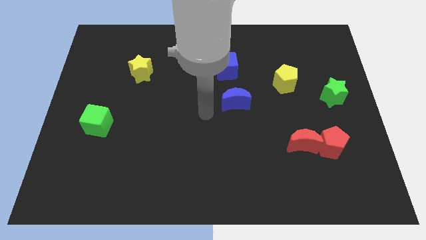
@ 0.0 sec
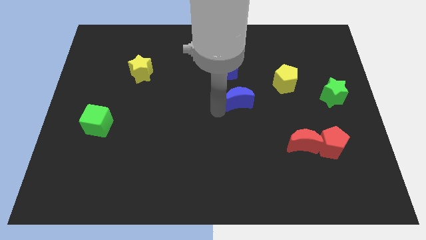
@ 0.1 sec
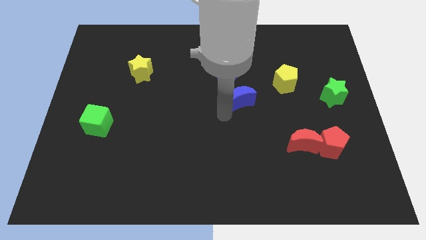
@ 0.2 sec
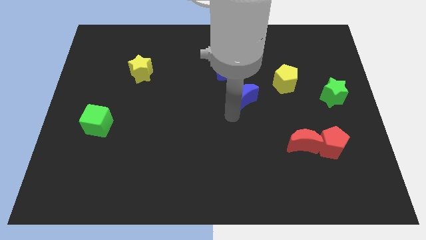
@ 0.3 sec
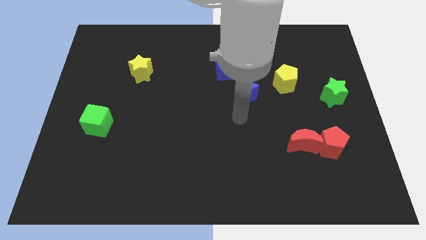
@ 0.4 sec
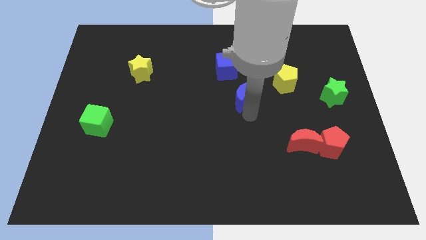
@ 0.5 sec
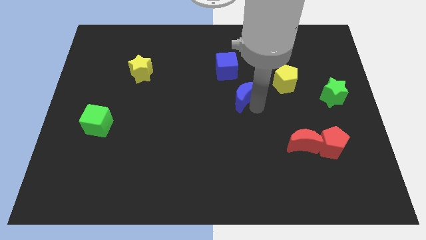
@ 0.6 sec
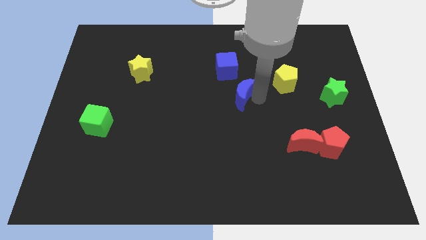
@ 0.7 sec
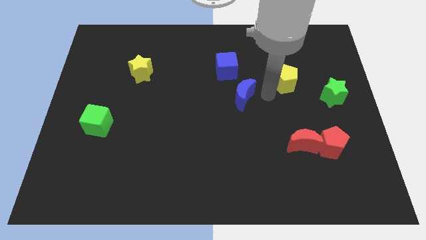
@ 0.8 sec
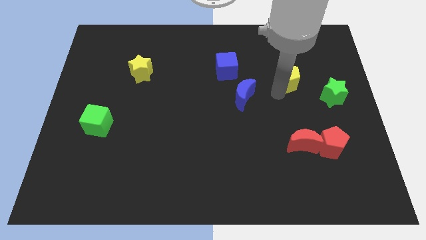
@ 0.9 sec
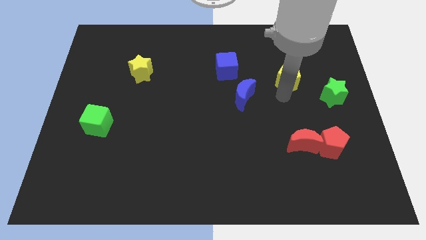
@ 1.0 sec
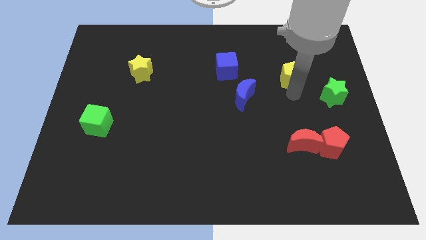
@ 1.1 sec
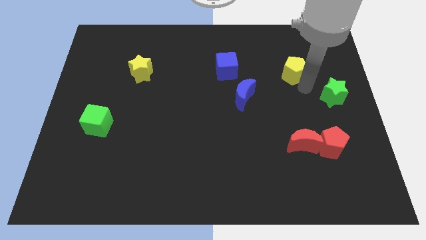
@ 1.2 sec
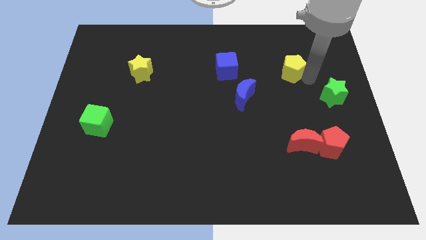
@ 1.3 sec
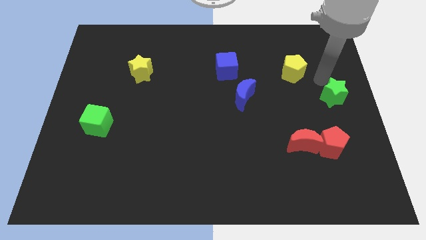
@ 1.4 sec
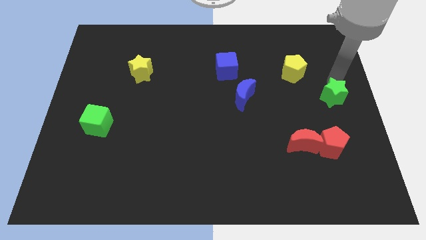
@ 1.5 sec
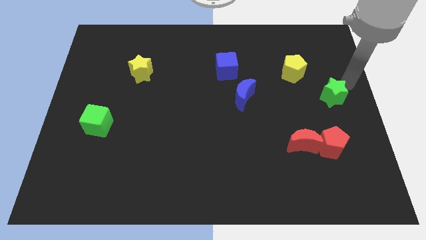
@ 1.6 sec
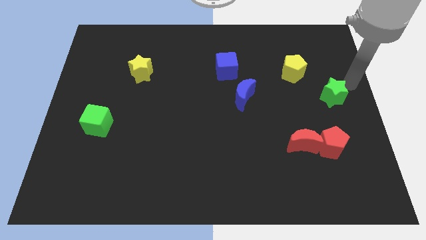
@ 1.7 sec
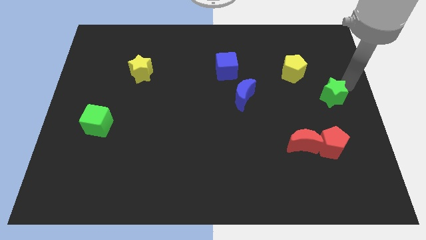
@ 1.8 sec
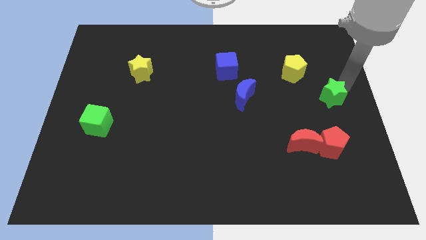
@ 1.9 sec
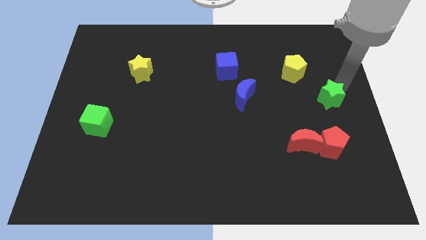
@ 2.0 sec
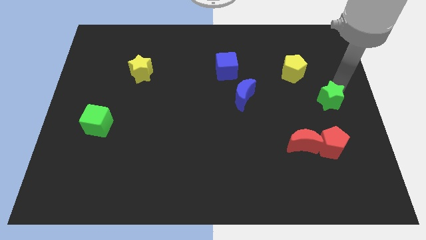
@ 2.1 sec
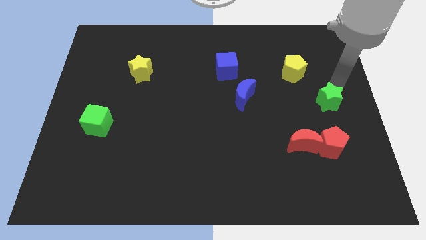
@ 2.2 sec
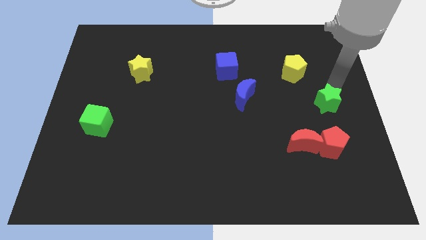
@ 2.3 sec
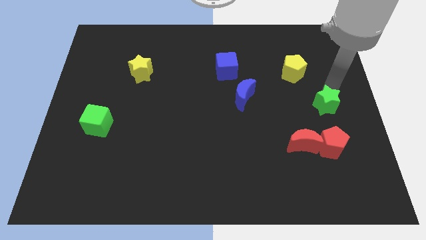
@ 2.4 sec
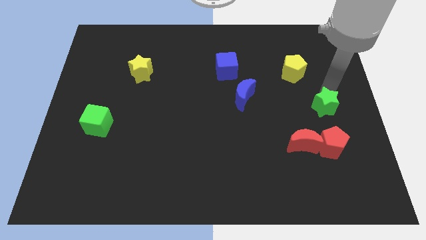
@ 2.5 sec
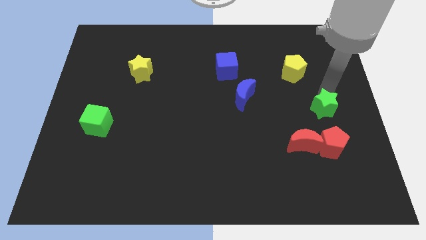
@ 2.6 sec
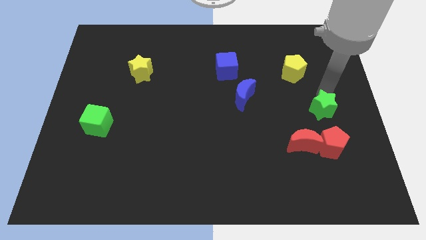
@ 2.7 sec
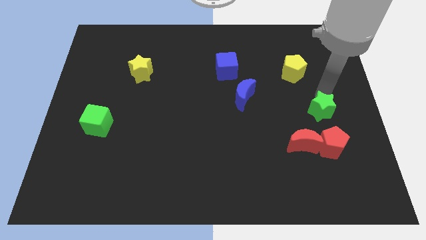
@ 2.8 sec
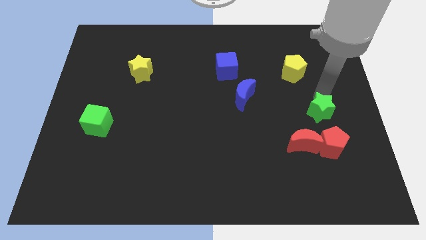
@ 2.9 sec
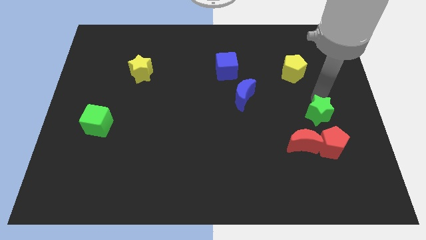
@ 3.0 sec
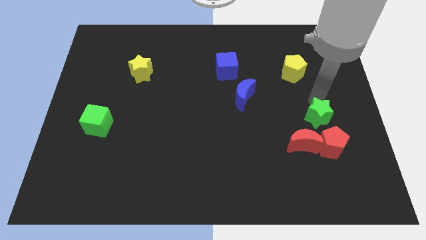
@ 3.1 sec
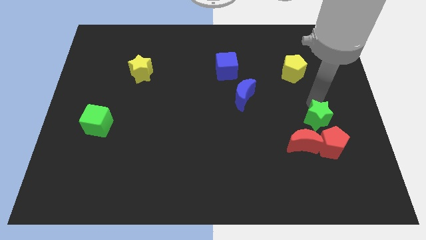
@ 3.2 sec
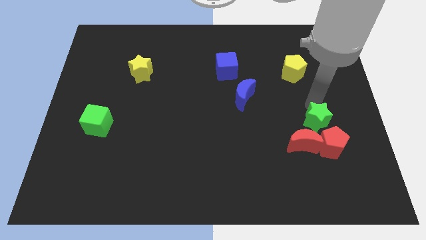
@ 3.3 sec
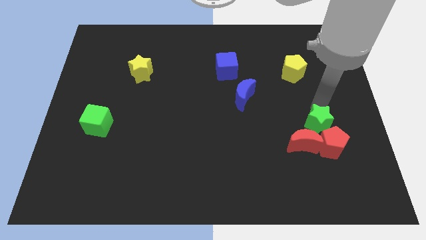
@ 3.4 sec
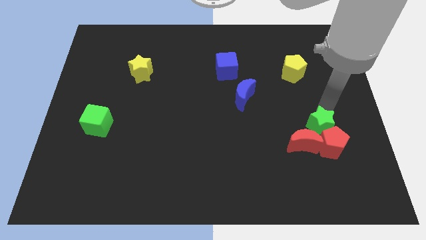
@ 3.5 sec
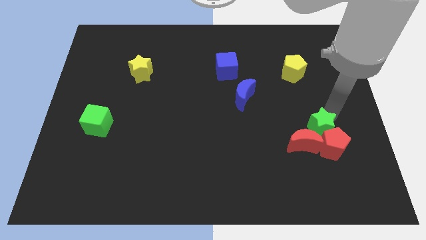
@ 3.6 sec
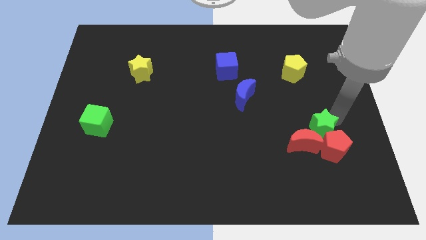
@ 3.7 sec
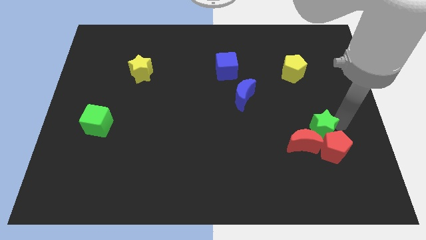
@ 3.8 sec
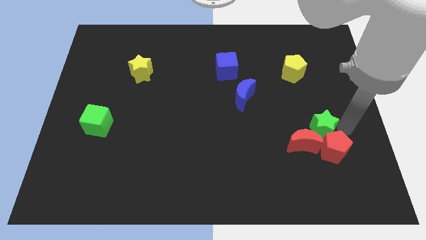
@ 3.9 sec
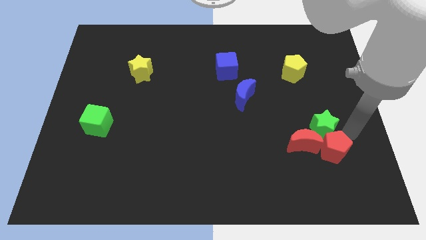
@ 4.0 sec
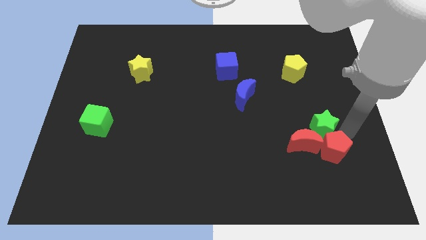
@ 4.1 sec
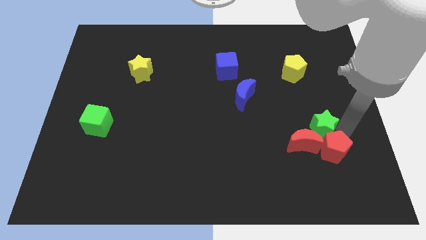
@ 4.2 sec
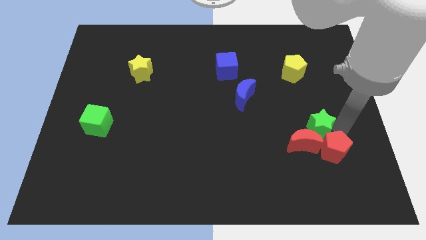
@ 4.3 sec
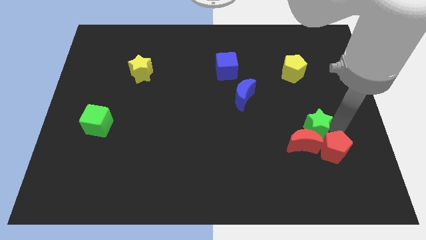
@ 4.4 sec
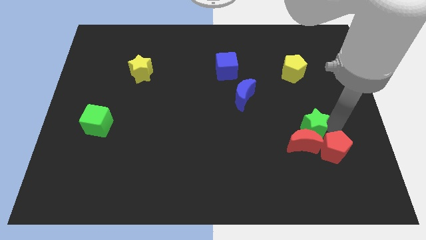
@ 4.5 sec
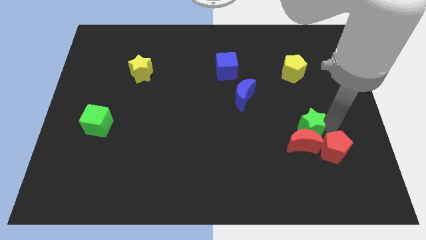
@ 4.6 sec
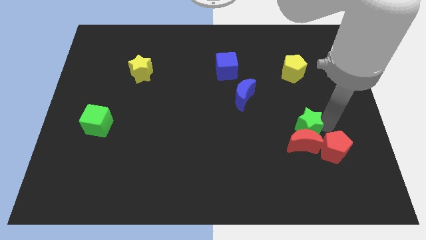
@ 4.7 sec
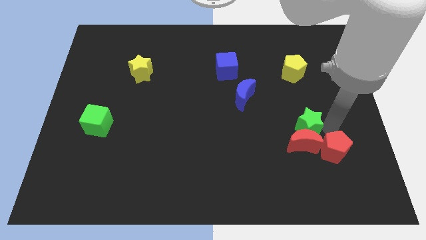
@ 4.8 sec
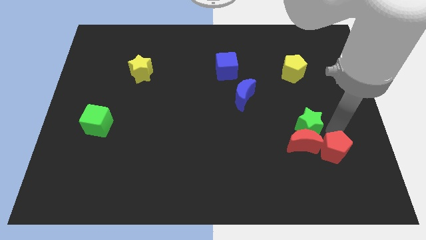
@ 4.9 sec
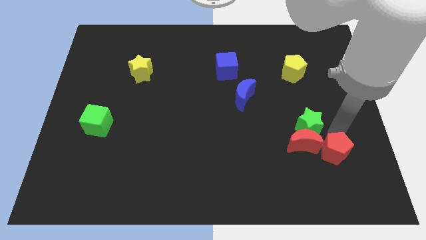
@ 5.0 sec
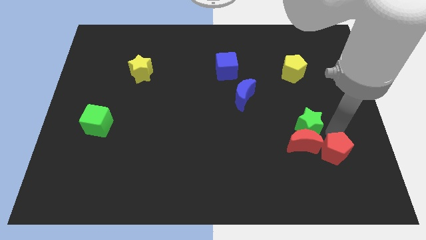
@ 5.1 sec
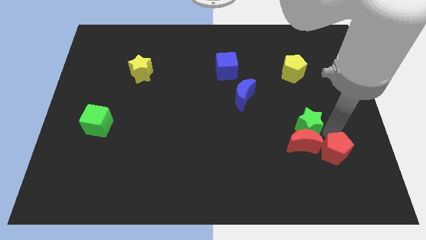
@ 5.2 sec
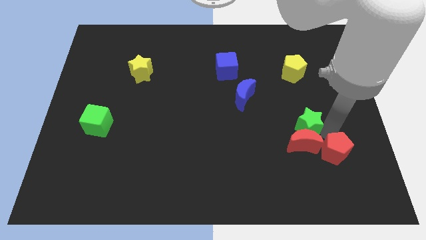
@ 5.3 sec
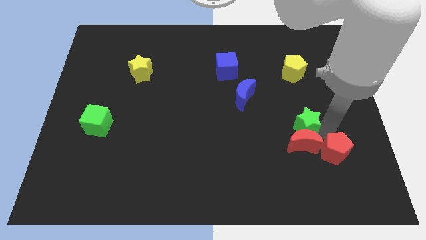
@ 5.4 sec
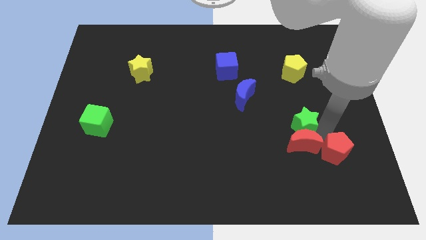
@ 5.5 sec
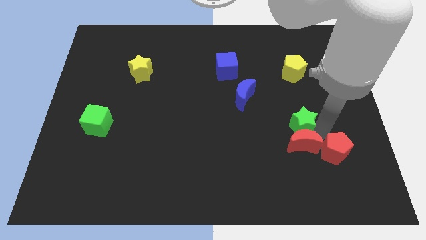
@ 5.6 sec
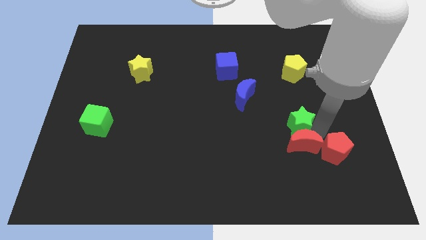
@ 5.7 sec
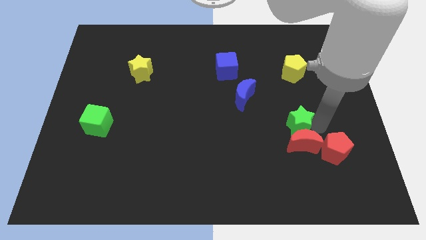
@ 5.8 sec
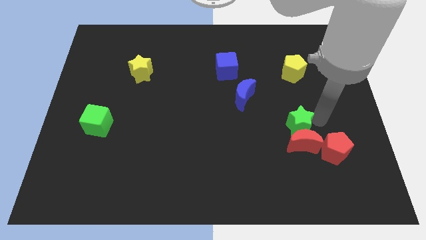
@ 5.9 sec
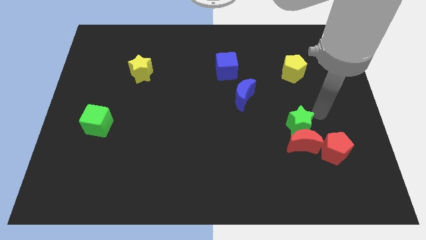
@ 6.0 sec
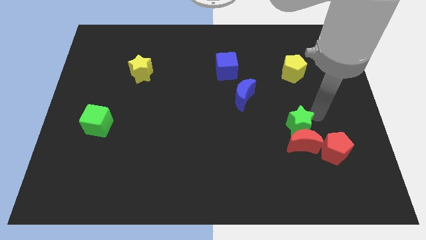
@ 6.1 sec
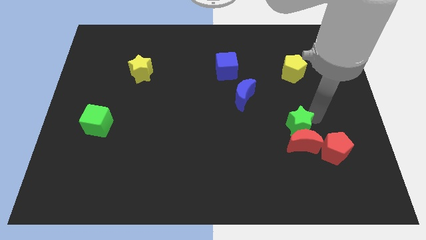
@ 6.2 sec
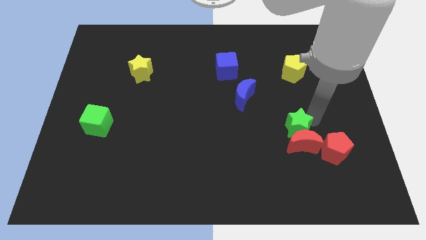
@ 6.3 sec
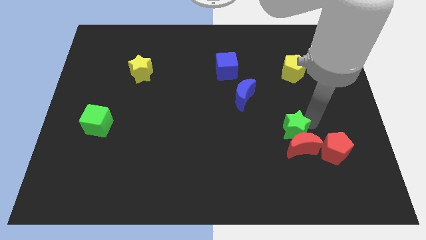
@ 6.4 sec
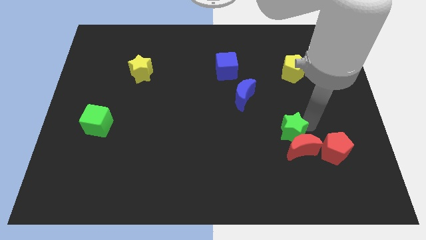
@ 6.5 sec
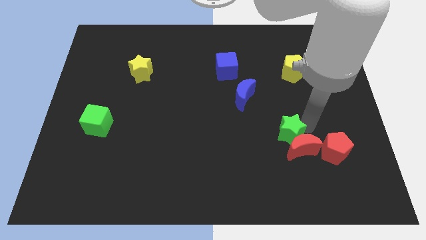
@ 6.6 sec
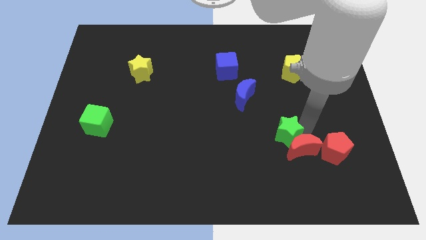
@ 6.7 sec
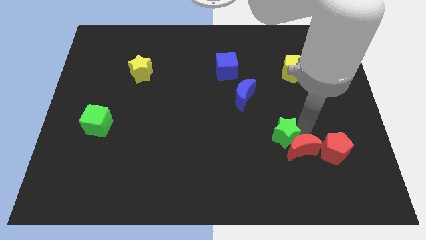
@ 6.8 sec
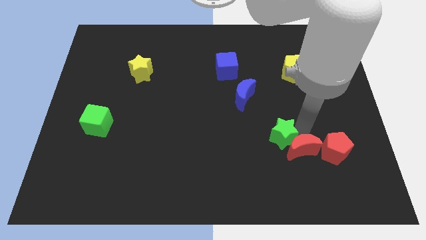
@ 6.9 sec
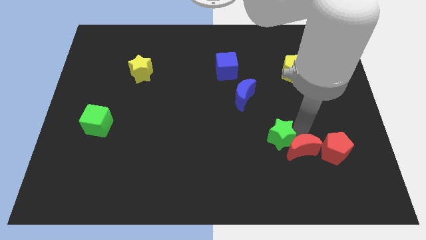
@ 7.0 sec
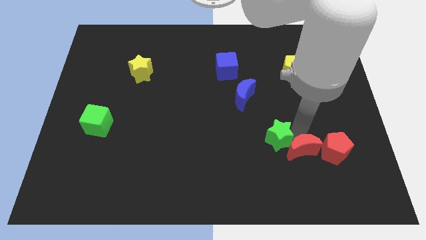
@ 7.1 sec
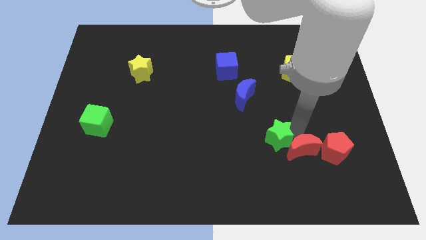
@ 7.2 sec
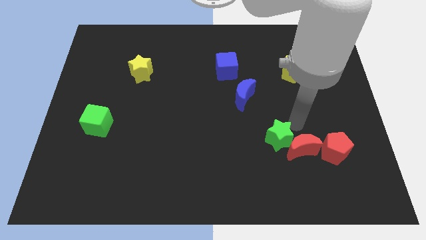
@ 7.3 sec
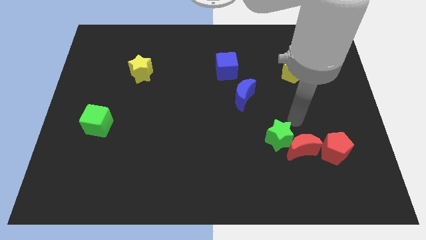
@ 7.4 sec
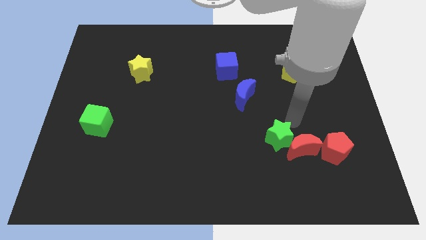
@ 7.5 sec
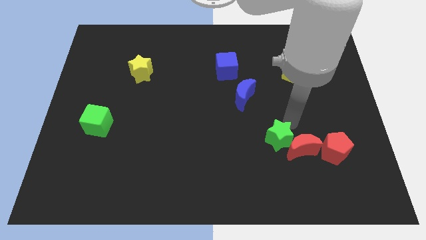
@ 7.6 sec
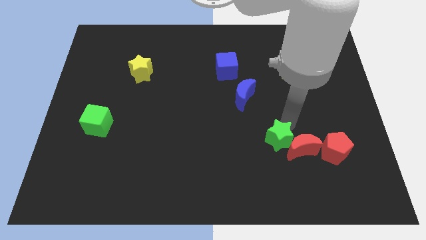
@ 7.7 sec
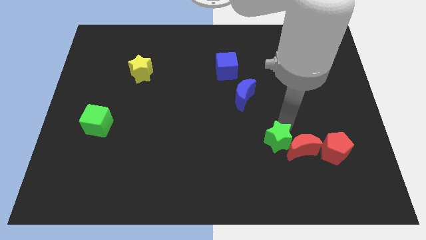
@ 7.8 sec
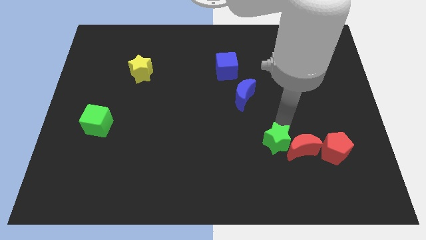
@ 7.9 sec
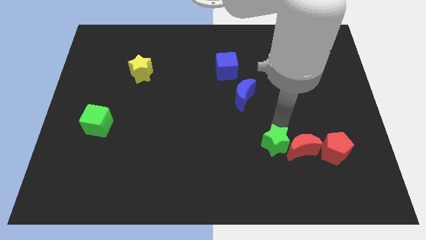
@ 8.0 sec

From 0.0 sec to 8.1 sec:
move the green star down and to the left
